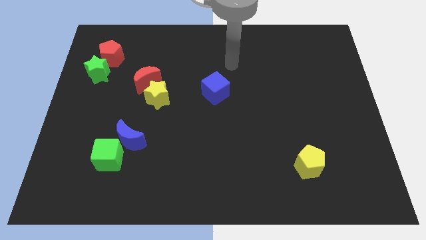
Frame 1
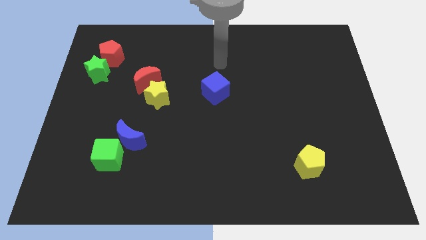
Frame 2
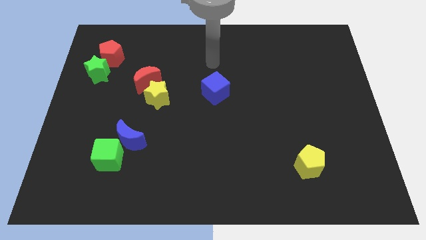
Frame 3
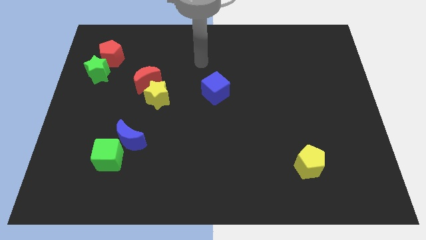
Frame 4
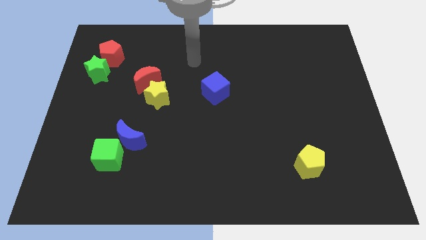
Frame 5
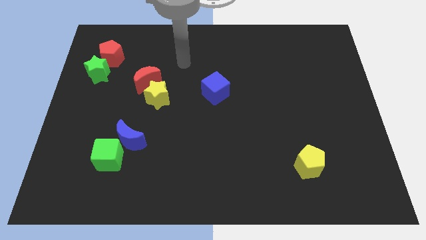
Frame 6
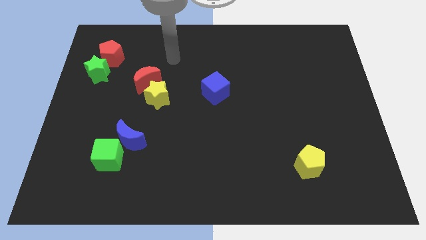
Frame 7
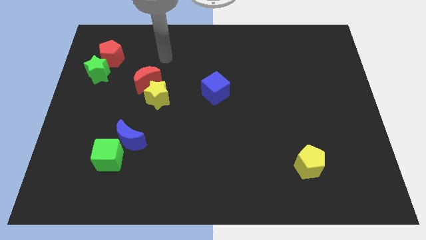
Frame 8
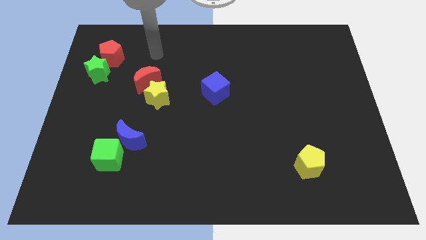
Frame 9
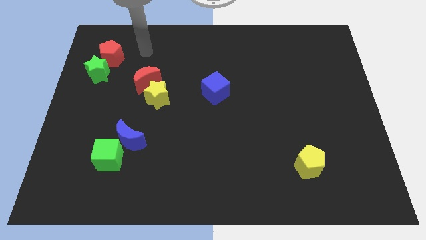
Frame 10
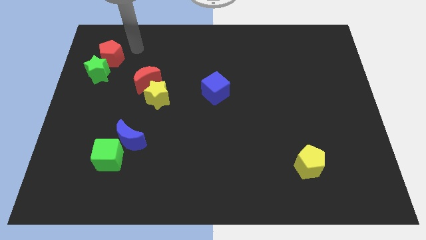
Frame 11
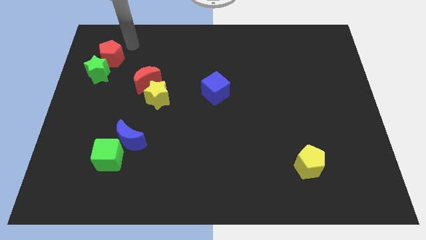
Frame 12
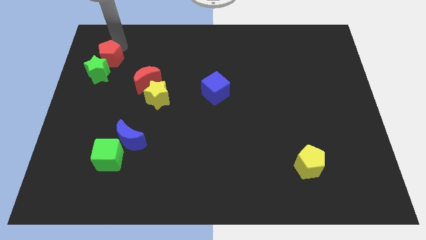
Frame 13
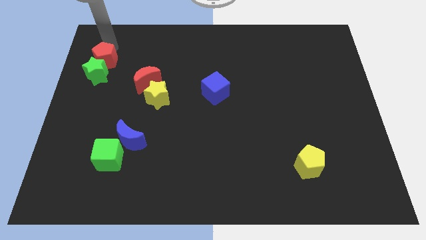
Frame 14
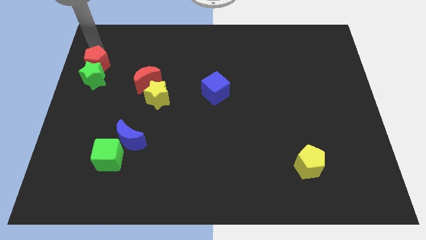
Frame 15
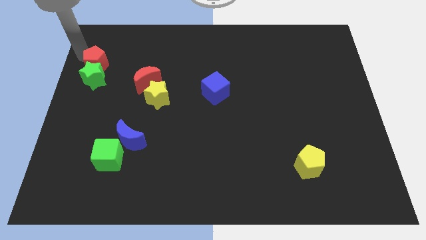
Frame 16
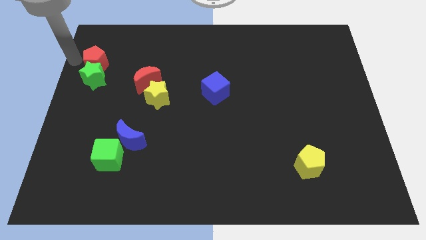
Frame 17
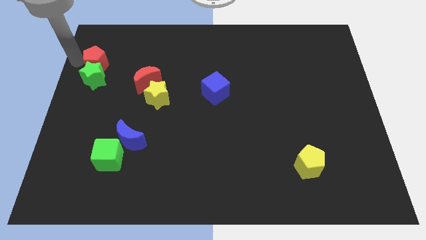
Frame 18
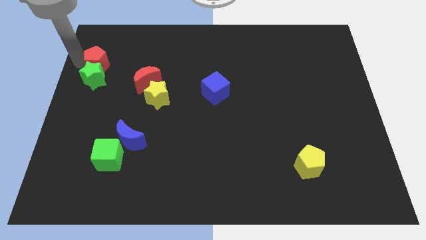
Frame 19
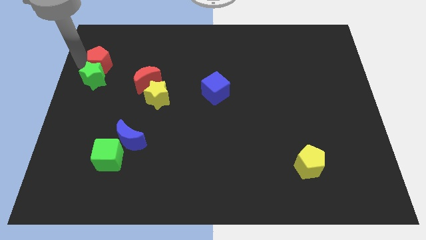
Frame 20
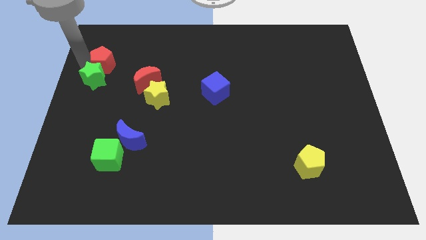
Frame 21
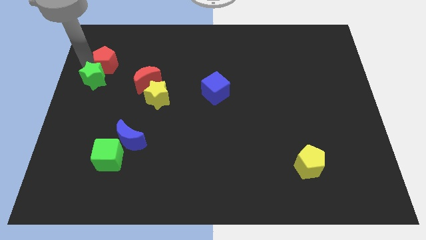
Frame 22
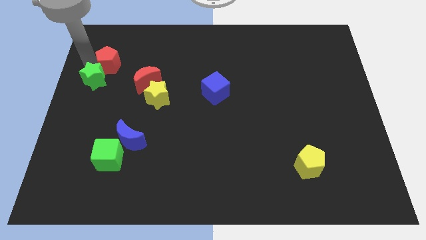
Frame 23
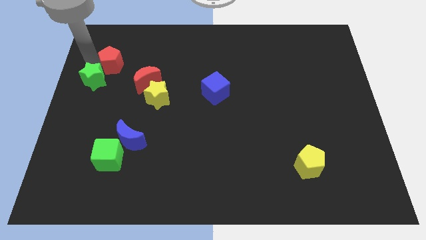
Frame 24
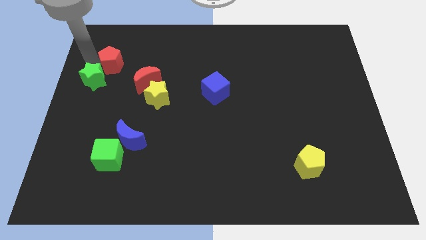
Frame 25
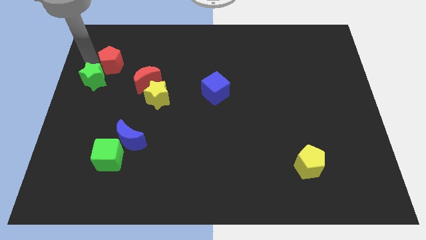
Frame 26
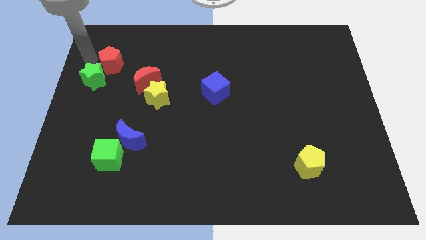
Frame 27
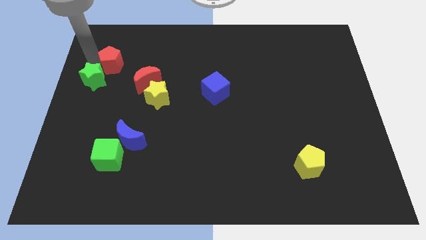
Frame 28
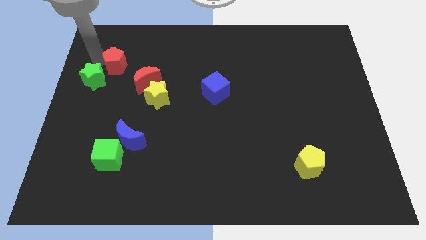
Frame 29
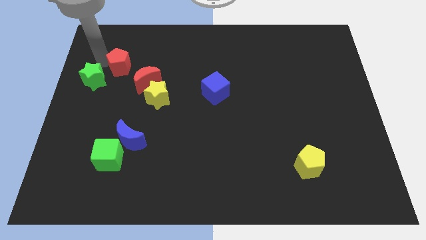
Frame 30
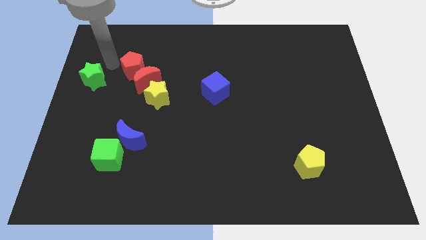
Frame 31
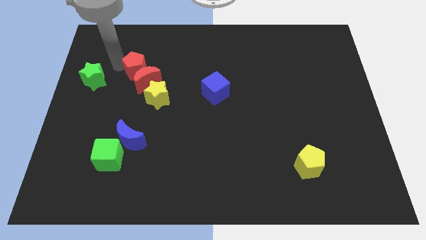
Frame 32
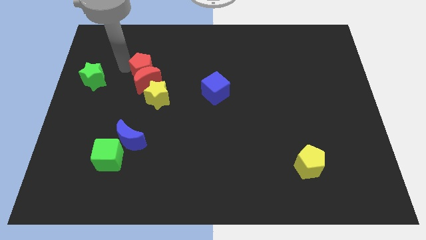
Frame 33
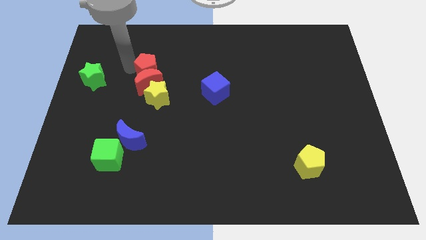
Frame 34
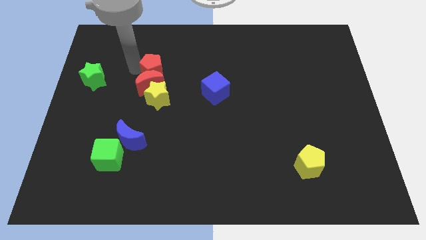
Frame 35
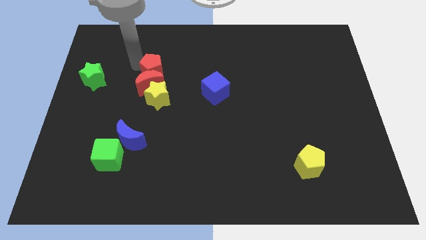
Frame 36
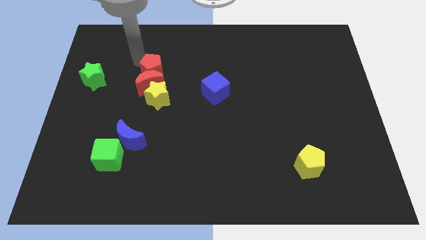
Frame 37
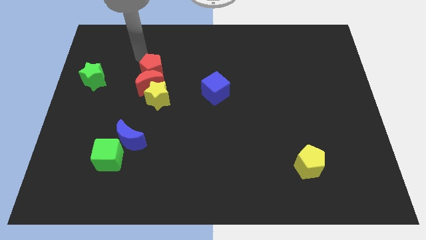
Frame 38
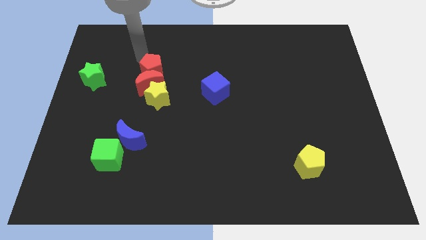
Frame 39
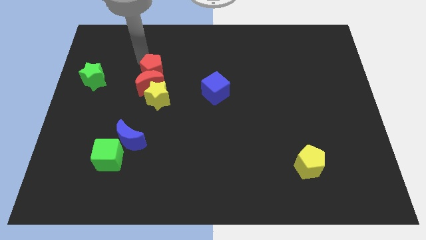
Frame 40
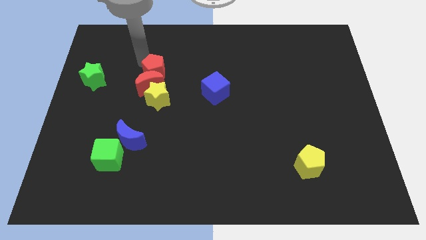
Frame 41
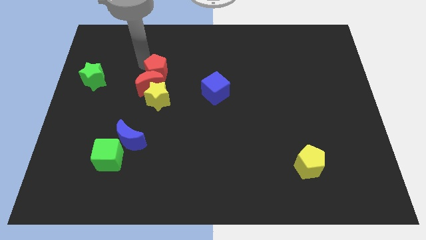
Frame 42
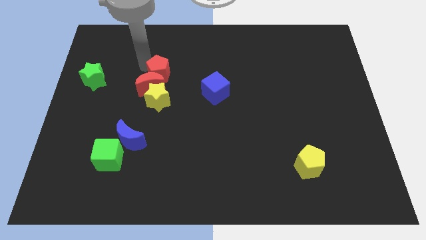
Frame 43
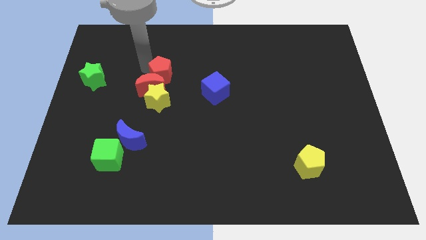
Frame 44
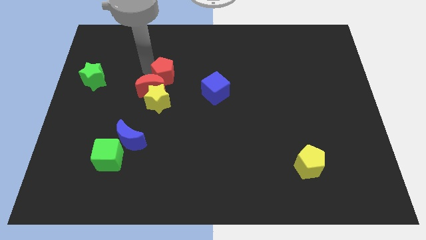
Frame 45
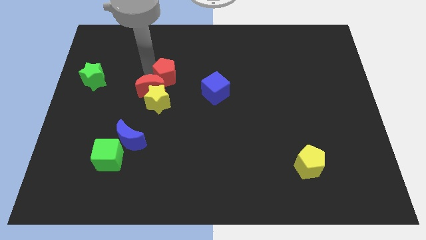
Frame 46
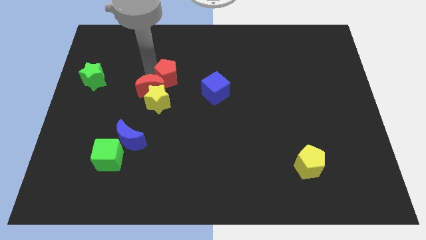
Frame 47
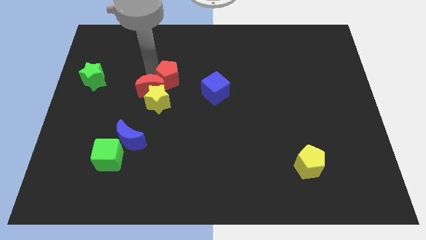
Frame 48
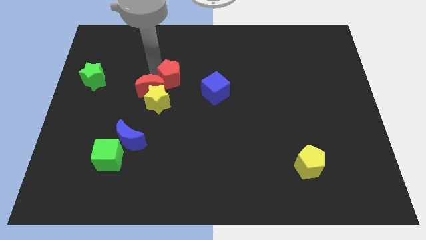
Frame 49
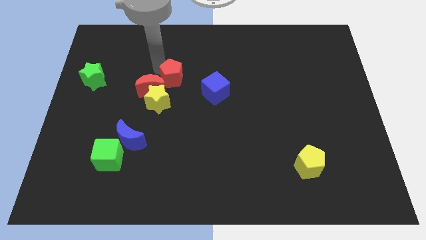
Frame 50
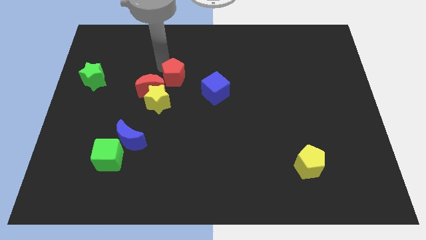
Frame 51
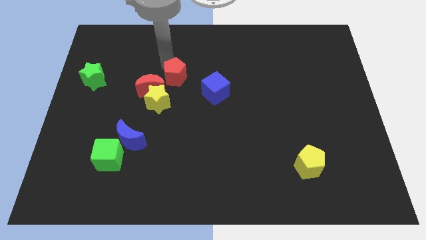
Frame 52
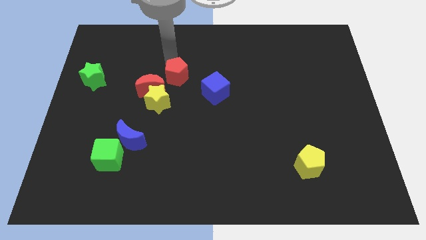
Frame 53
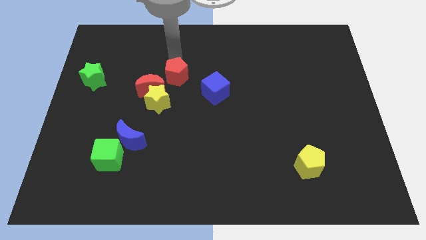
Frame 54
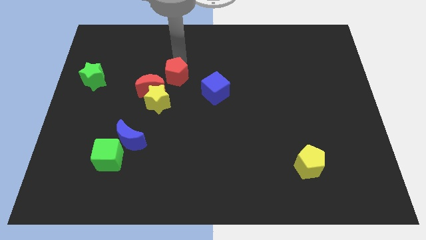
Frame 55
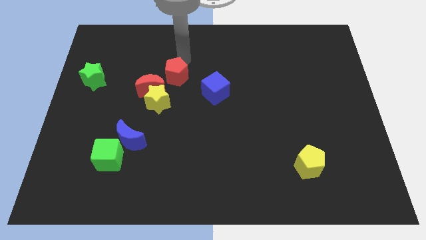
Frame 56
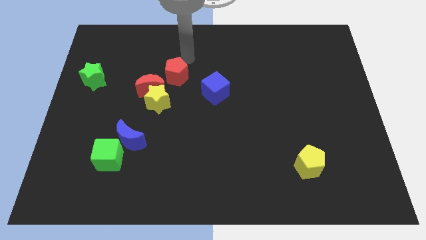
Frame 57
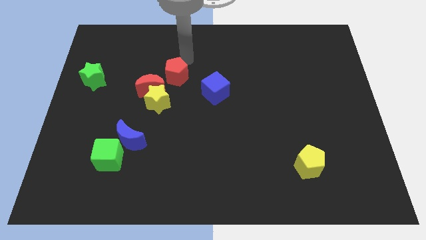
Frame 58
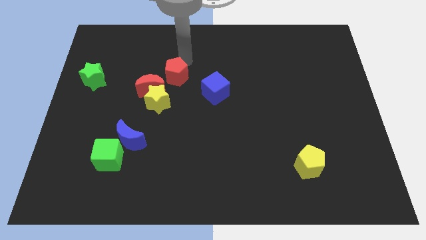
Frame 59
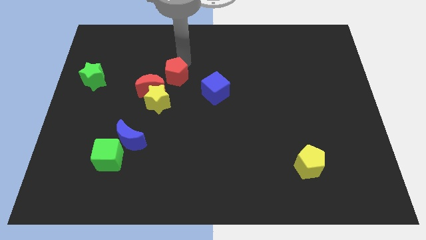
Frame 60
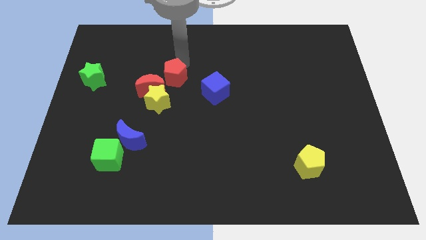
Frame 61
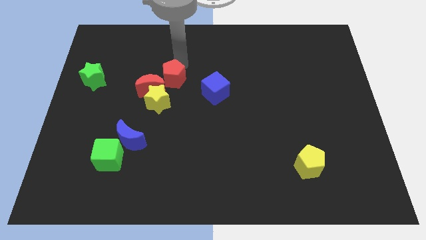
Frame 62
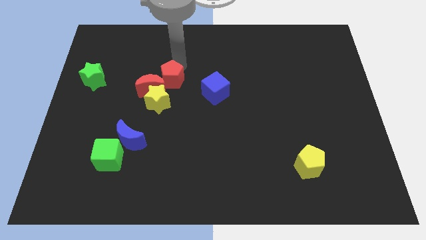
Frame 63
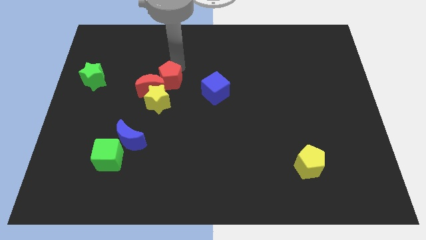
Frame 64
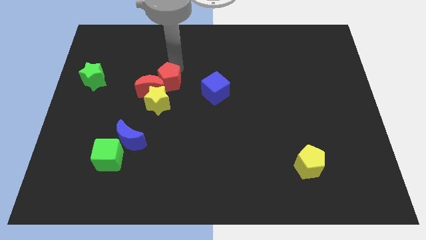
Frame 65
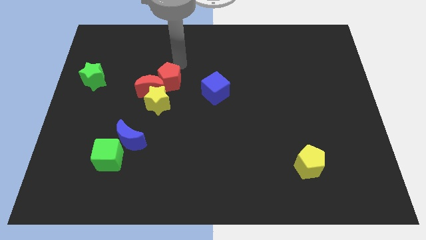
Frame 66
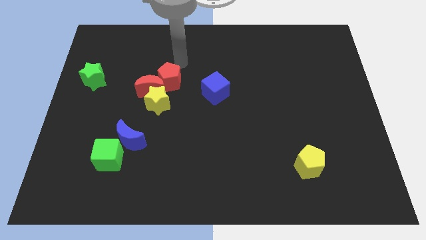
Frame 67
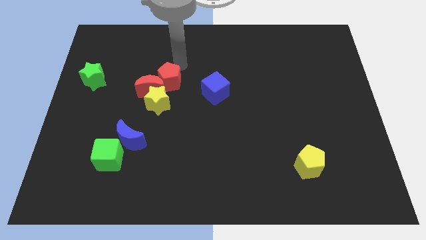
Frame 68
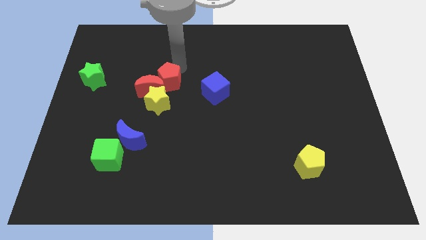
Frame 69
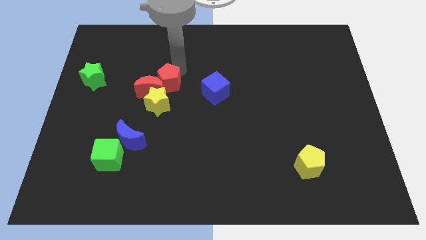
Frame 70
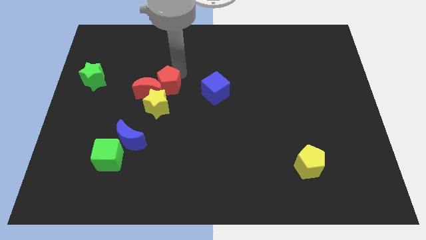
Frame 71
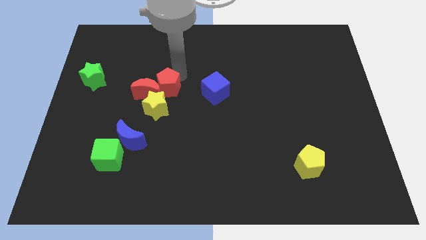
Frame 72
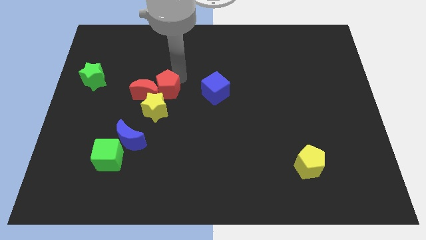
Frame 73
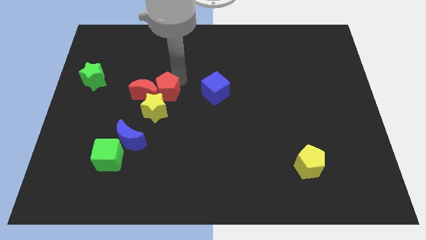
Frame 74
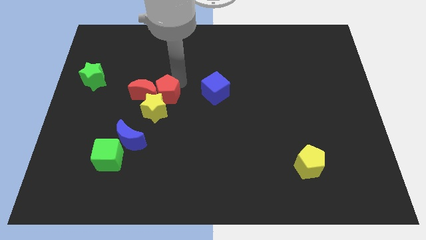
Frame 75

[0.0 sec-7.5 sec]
push the red pentagon to the yellow star

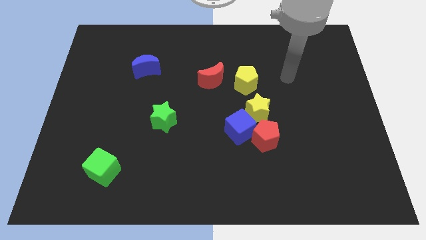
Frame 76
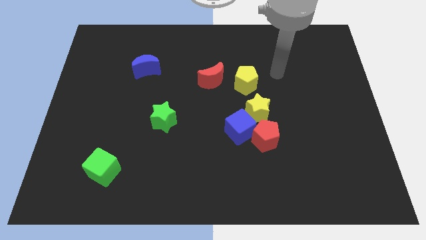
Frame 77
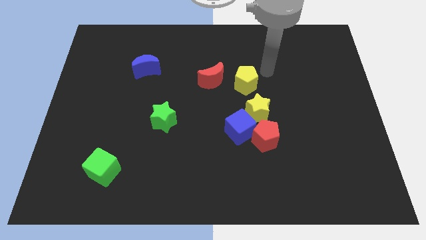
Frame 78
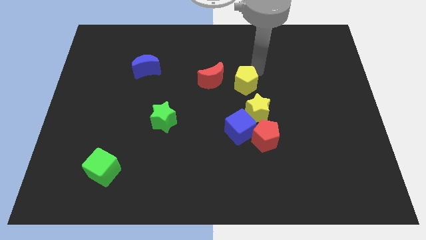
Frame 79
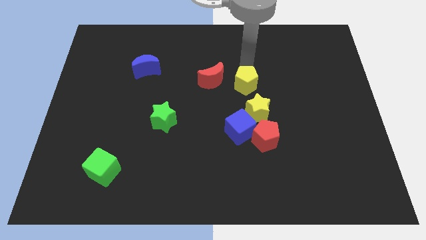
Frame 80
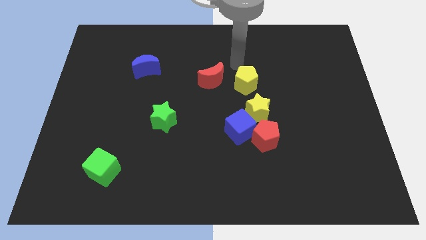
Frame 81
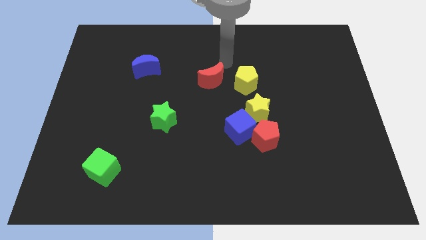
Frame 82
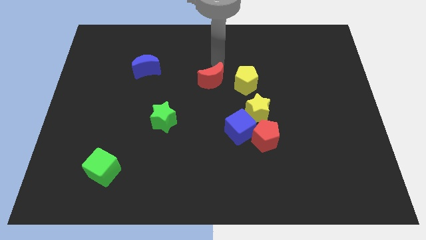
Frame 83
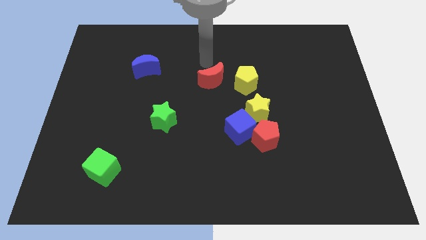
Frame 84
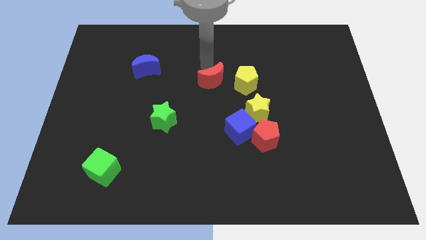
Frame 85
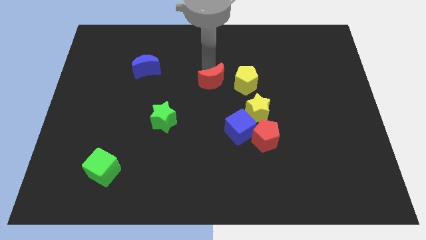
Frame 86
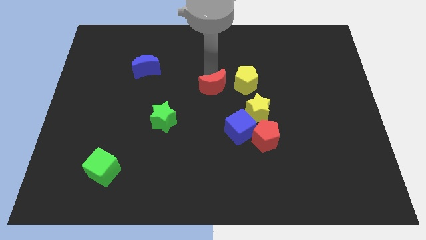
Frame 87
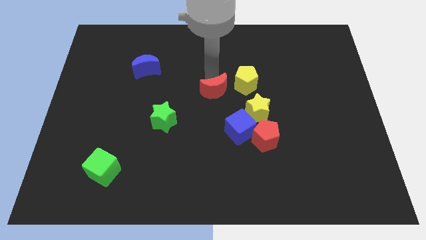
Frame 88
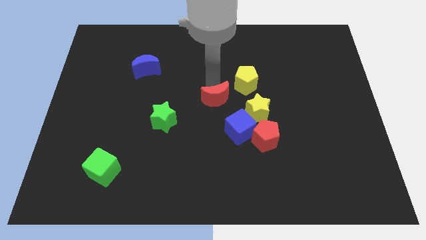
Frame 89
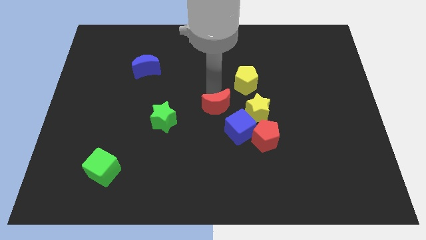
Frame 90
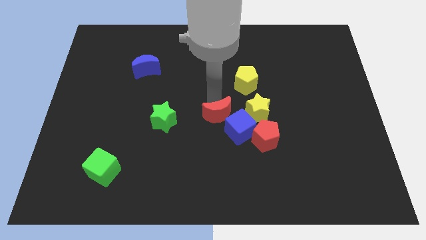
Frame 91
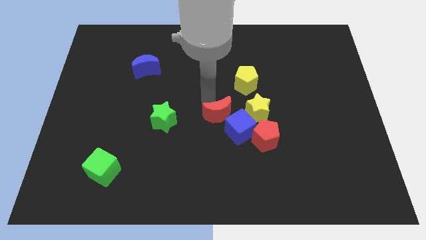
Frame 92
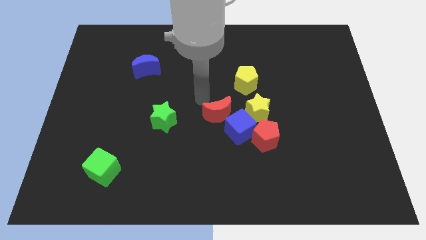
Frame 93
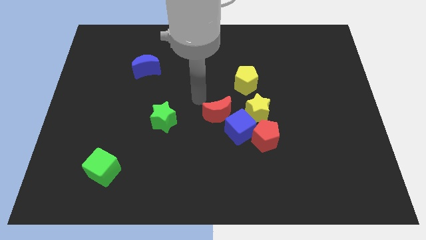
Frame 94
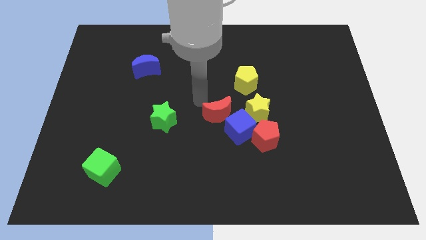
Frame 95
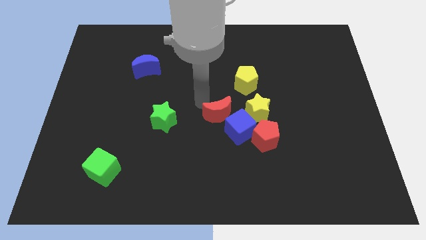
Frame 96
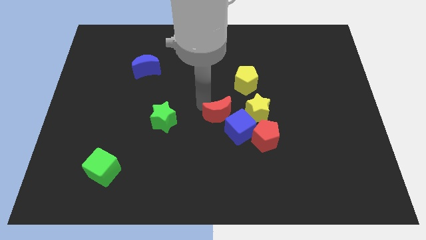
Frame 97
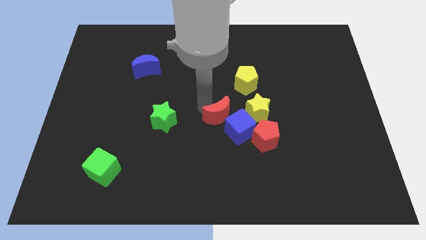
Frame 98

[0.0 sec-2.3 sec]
slide the red moon to the blue cube
